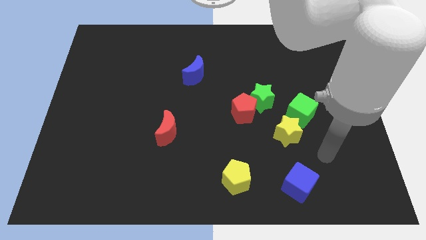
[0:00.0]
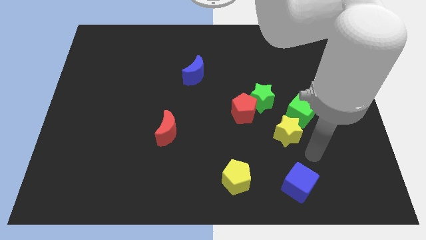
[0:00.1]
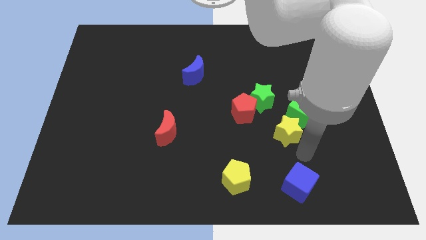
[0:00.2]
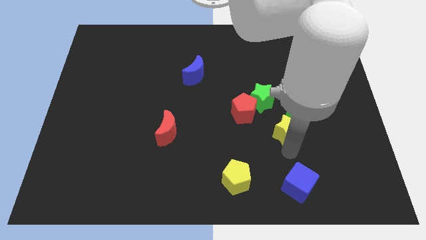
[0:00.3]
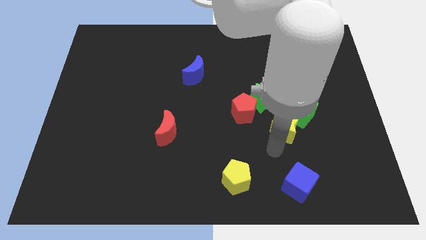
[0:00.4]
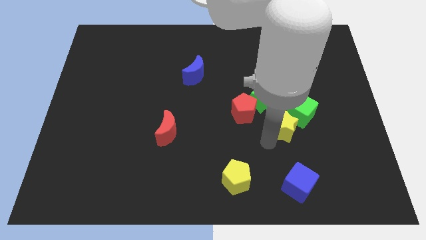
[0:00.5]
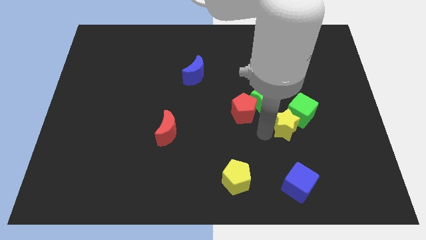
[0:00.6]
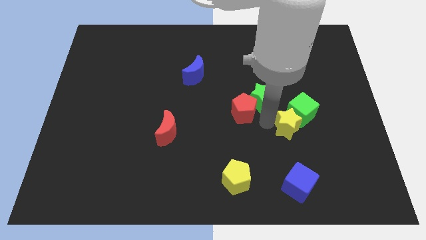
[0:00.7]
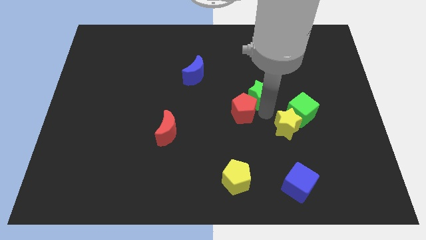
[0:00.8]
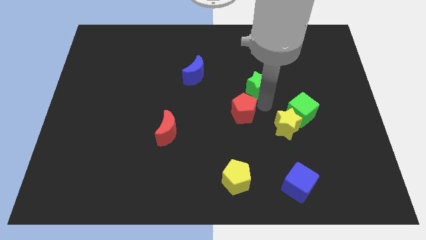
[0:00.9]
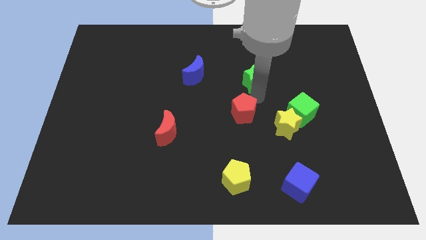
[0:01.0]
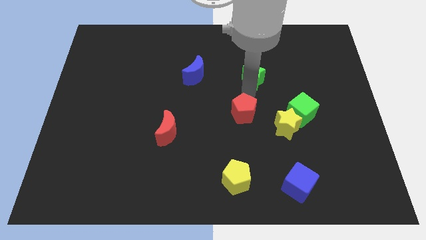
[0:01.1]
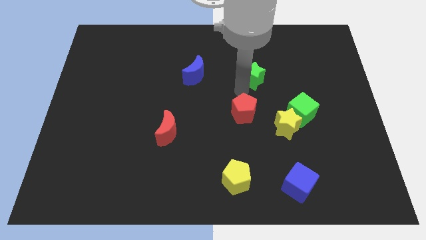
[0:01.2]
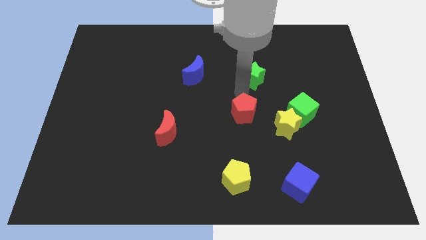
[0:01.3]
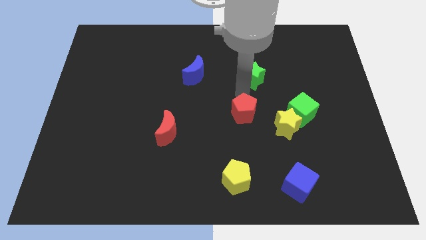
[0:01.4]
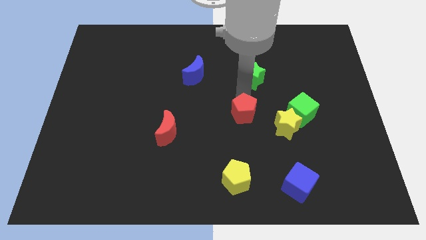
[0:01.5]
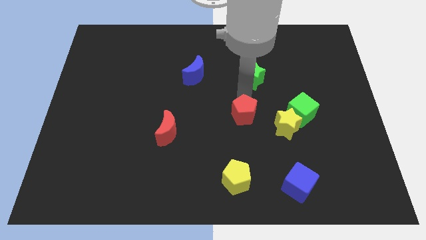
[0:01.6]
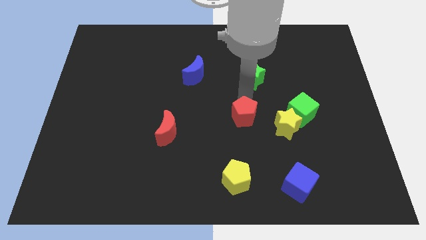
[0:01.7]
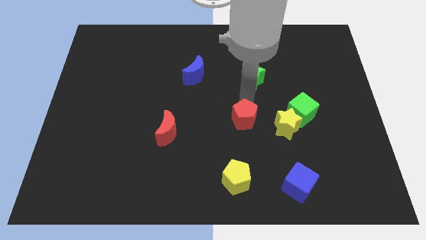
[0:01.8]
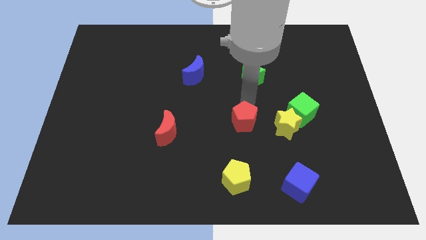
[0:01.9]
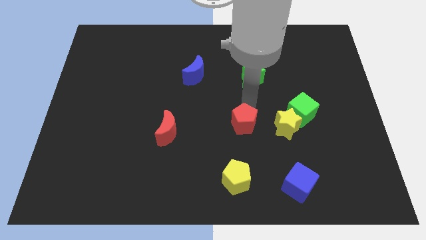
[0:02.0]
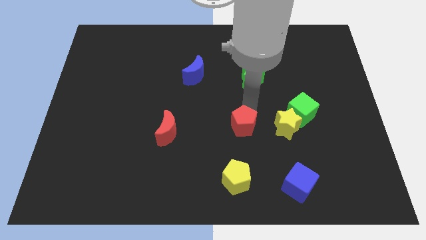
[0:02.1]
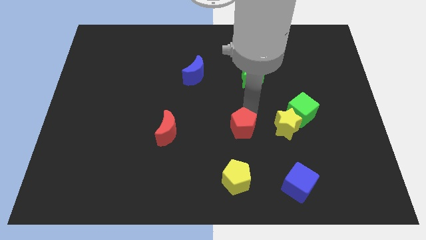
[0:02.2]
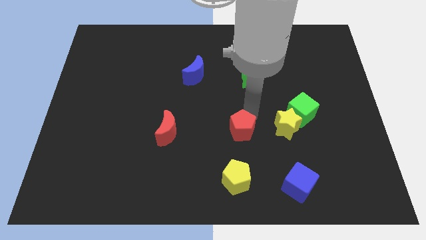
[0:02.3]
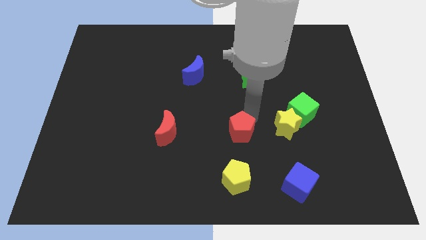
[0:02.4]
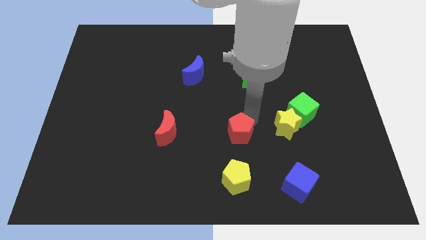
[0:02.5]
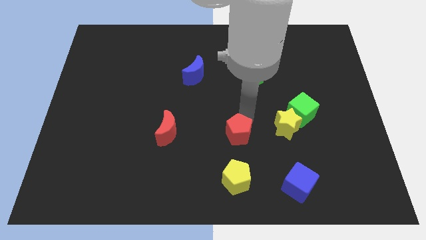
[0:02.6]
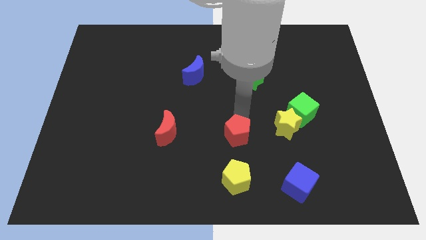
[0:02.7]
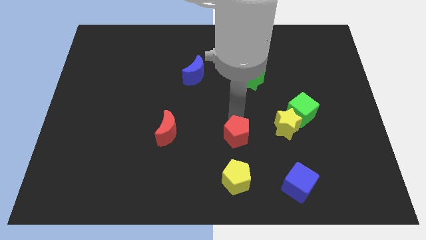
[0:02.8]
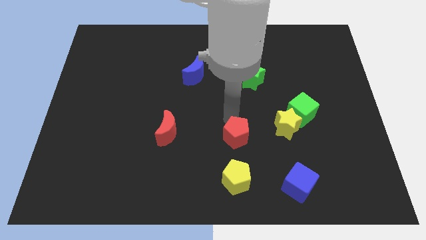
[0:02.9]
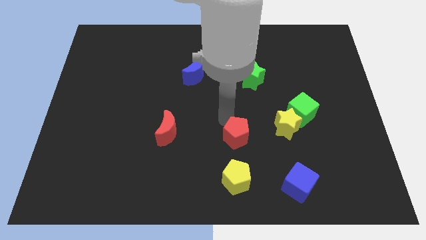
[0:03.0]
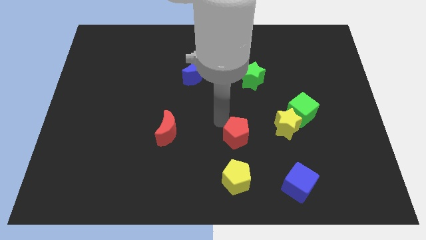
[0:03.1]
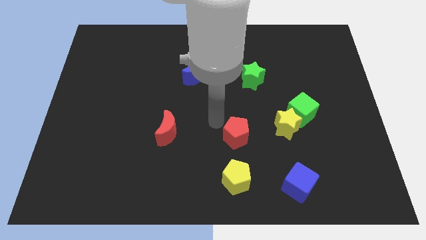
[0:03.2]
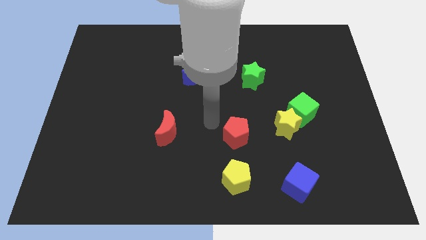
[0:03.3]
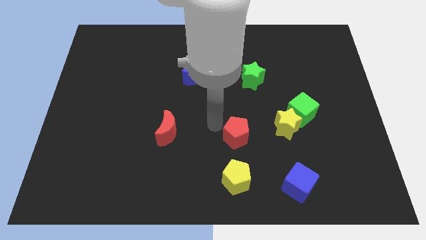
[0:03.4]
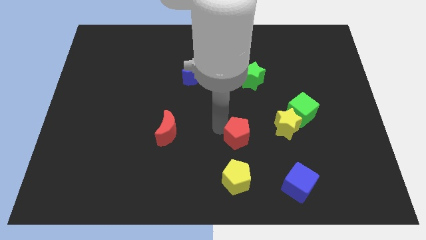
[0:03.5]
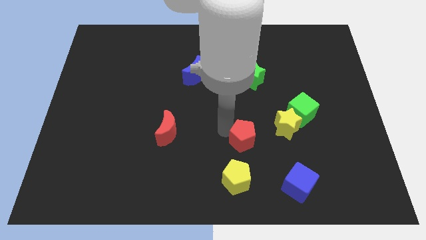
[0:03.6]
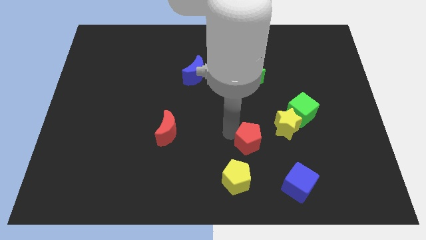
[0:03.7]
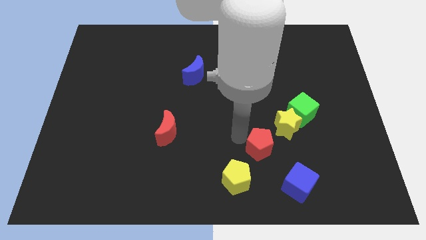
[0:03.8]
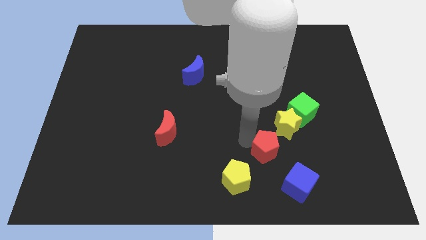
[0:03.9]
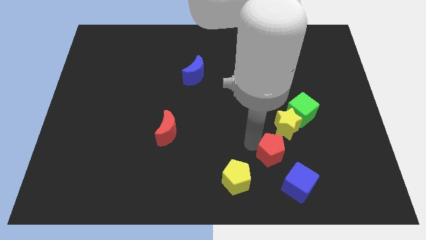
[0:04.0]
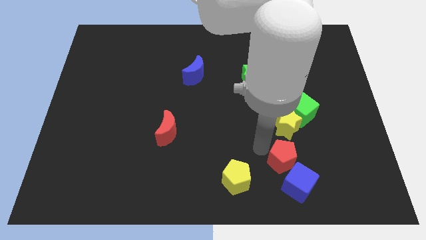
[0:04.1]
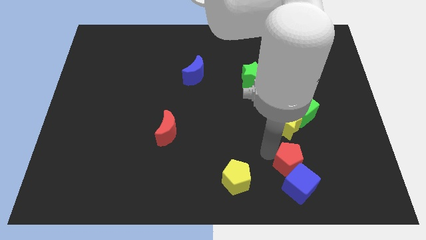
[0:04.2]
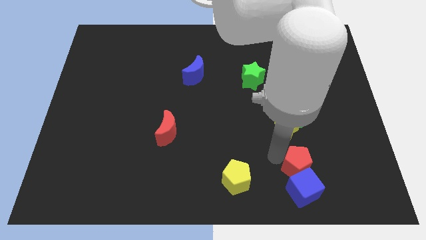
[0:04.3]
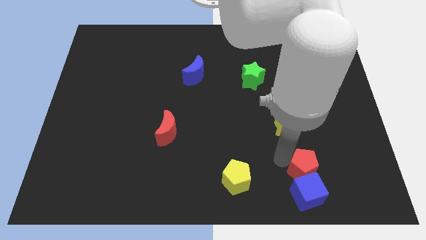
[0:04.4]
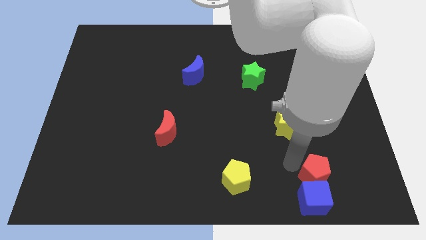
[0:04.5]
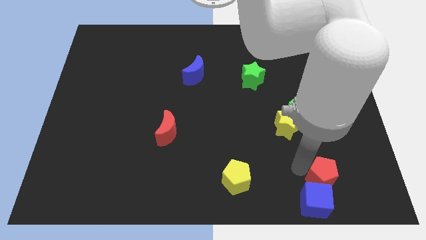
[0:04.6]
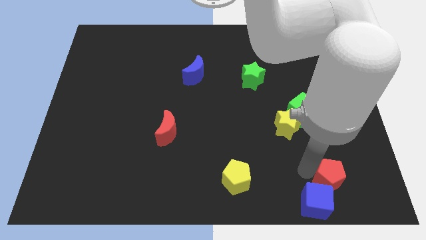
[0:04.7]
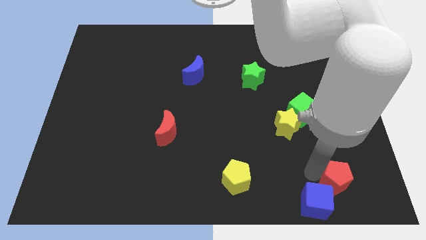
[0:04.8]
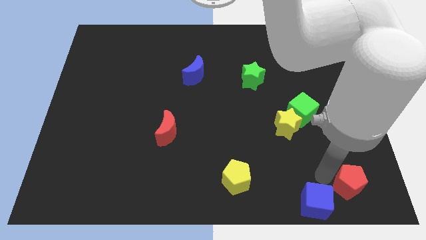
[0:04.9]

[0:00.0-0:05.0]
move the red pentagon to the bottom right corner

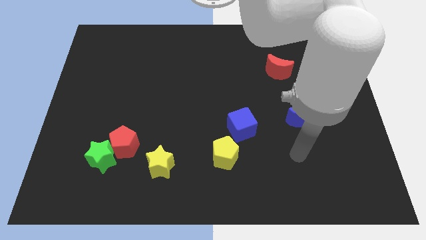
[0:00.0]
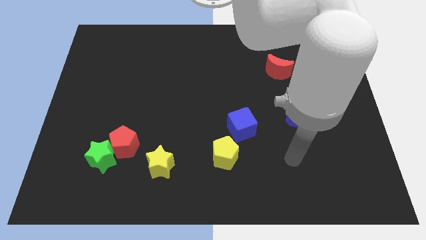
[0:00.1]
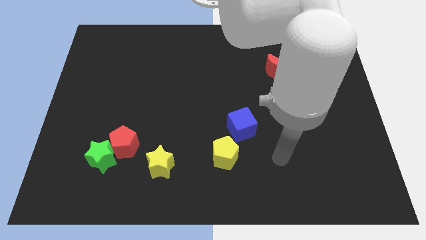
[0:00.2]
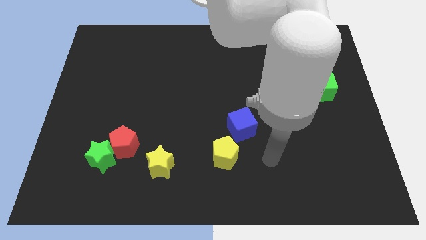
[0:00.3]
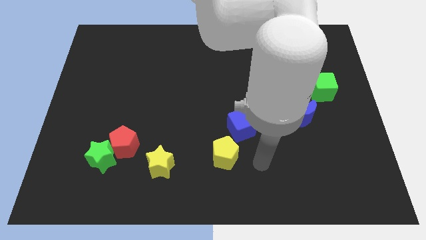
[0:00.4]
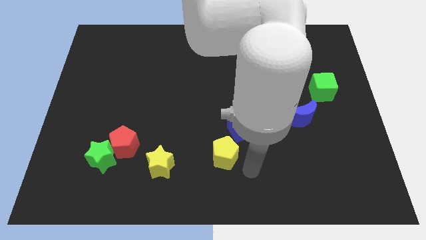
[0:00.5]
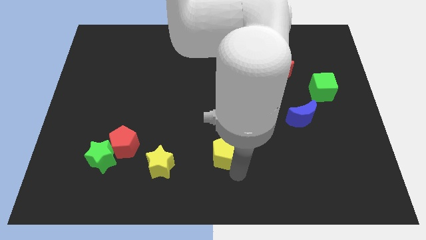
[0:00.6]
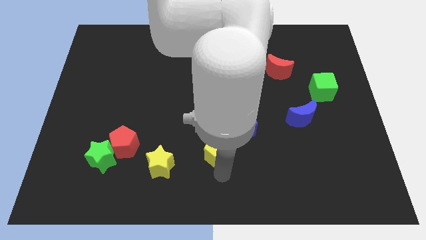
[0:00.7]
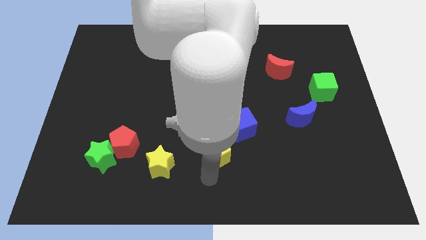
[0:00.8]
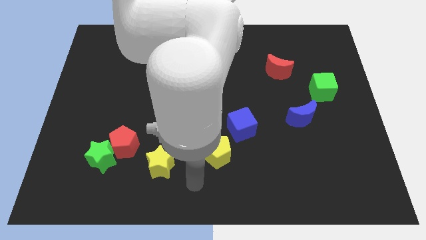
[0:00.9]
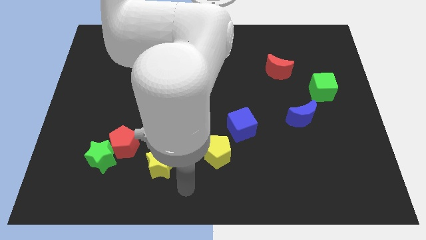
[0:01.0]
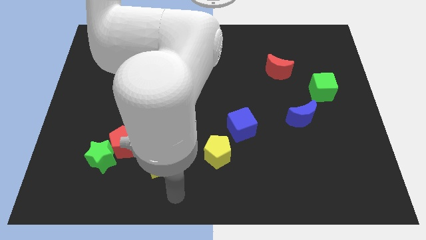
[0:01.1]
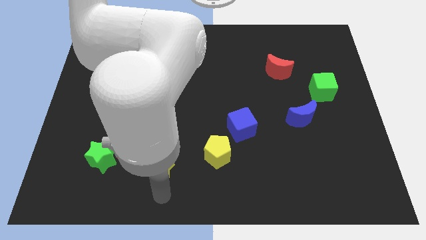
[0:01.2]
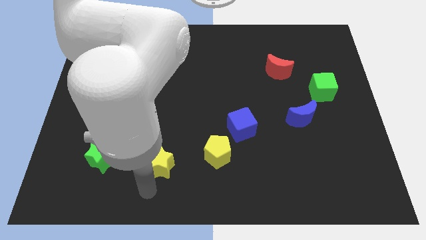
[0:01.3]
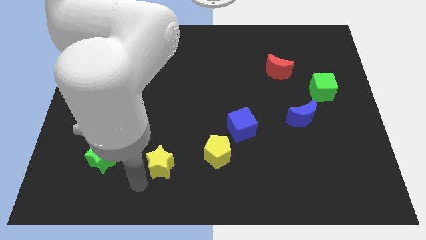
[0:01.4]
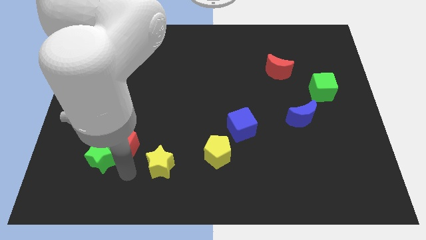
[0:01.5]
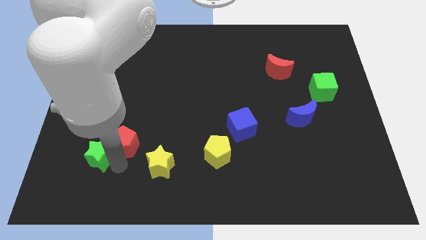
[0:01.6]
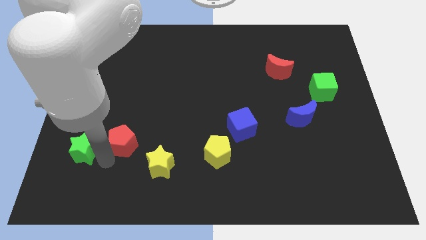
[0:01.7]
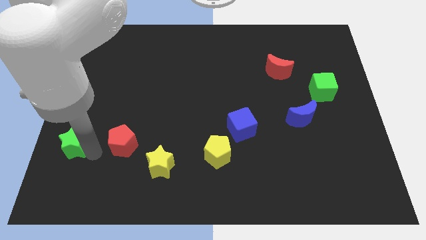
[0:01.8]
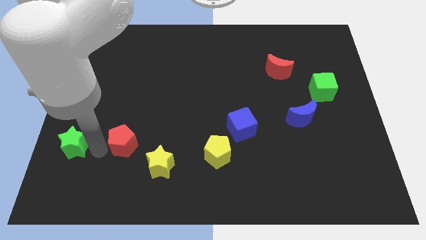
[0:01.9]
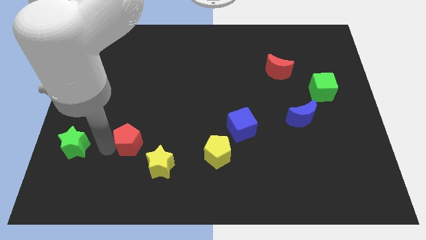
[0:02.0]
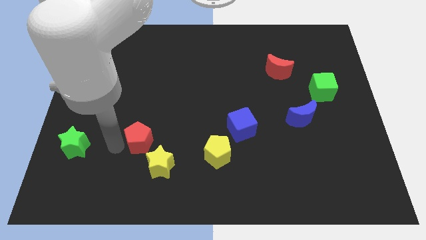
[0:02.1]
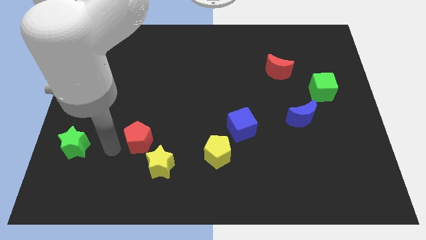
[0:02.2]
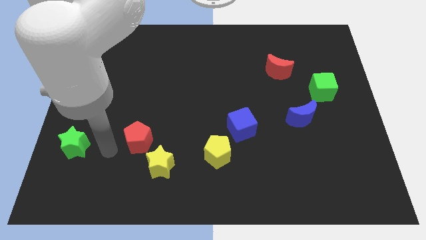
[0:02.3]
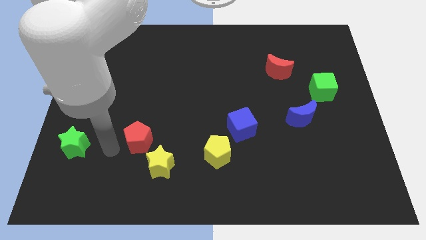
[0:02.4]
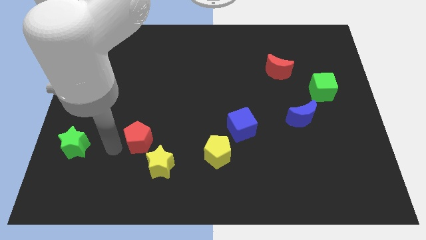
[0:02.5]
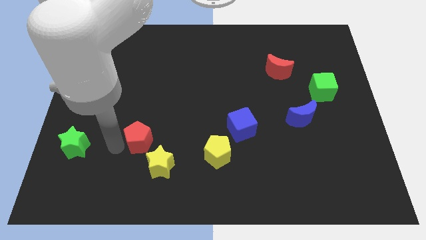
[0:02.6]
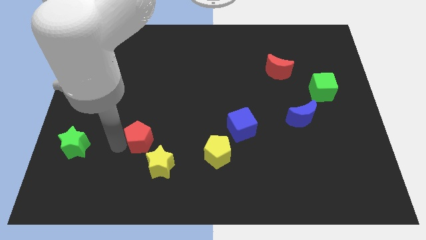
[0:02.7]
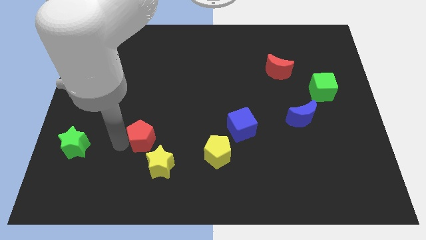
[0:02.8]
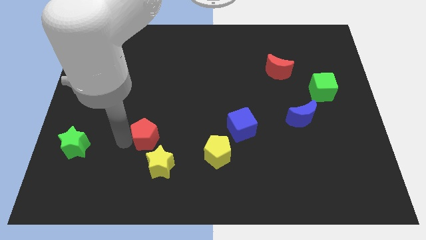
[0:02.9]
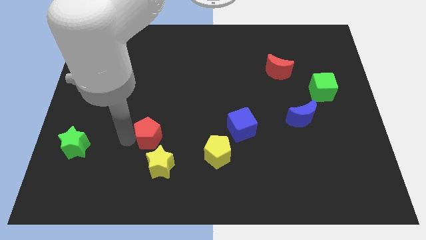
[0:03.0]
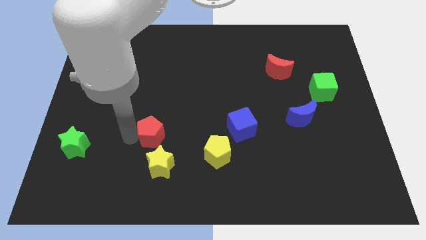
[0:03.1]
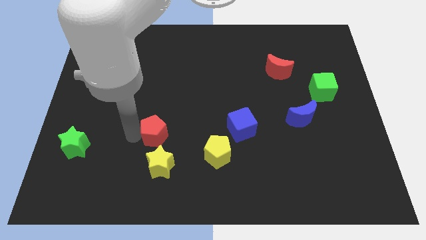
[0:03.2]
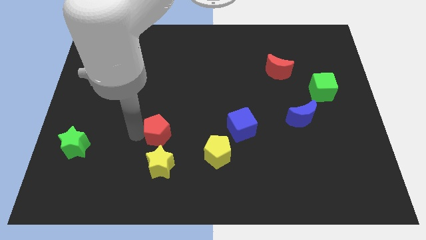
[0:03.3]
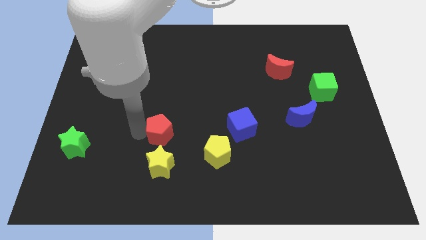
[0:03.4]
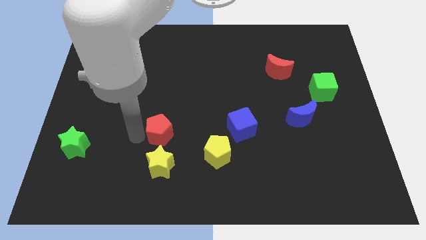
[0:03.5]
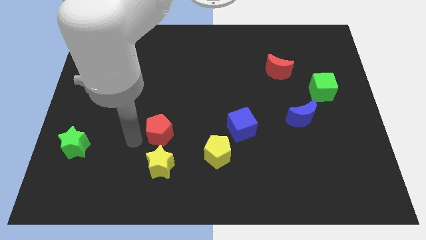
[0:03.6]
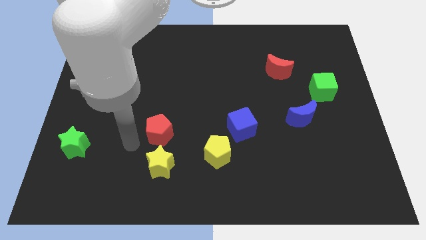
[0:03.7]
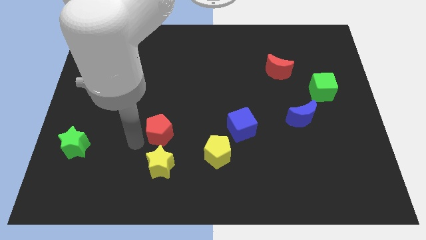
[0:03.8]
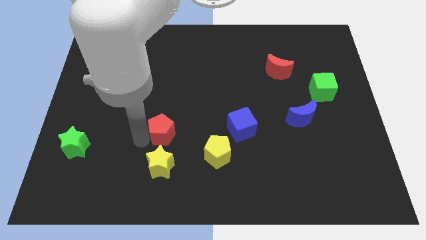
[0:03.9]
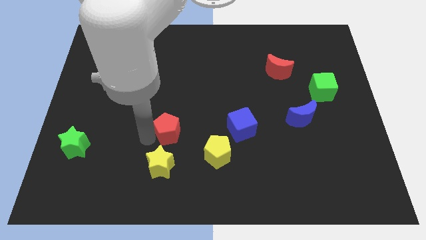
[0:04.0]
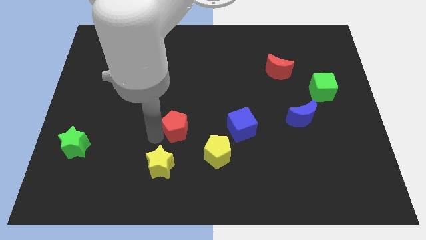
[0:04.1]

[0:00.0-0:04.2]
move the red pentagon to the middle
